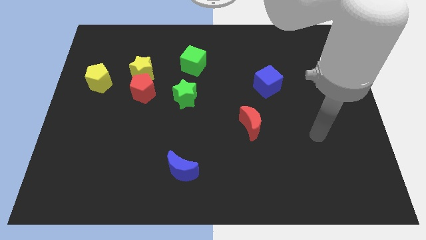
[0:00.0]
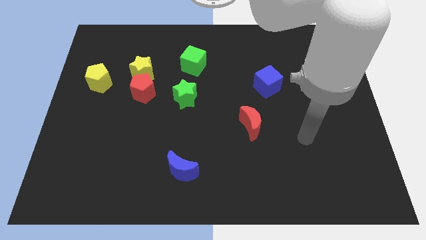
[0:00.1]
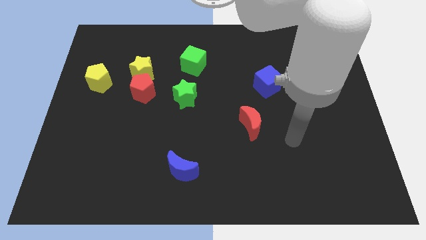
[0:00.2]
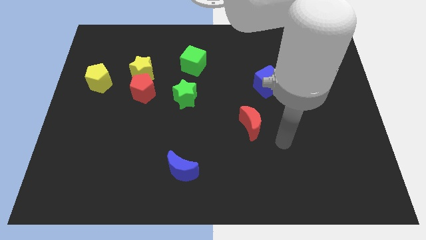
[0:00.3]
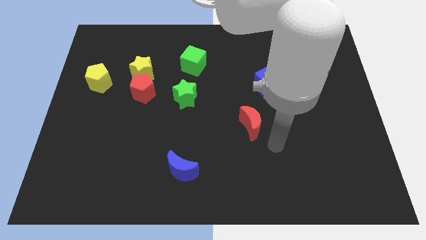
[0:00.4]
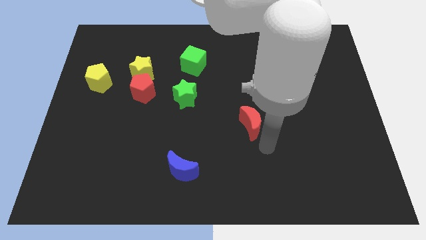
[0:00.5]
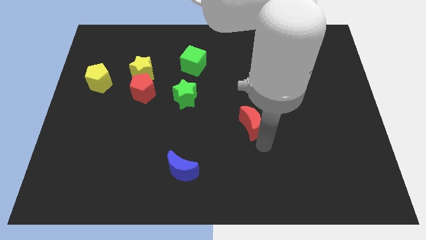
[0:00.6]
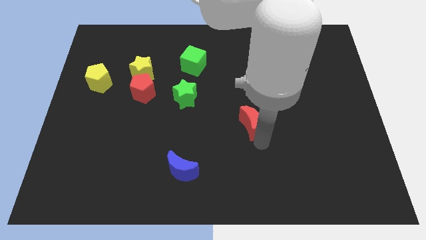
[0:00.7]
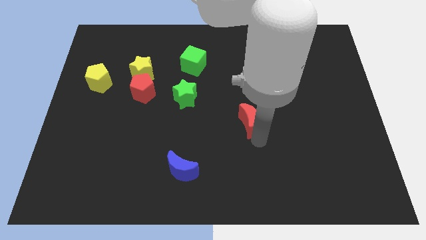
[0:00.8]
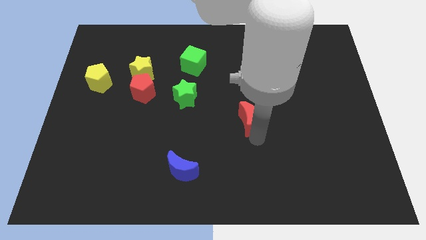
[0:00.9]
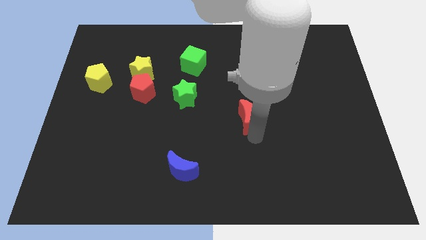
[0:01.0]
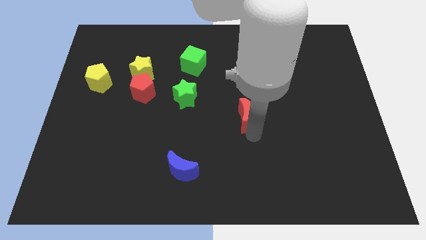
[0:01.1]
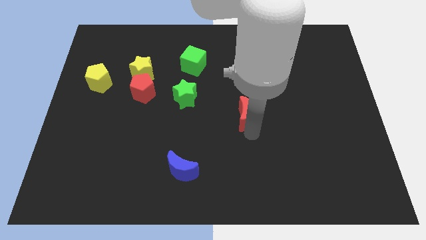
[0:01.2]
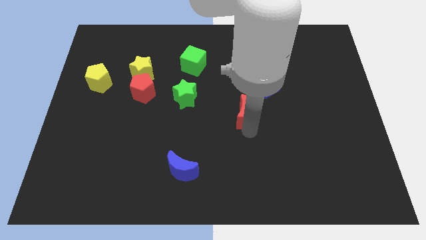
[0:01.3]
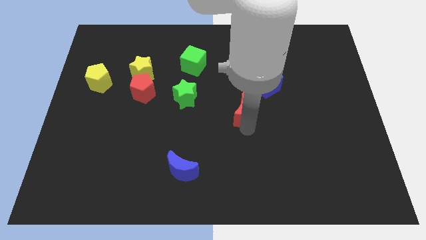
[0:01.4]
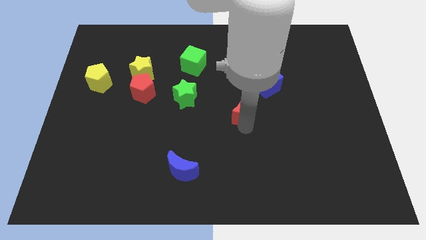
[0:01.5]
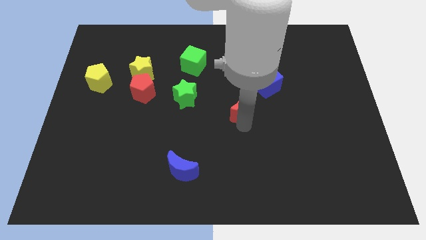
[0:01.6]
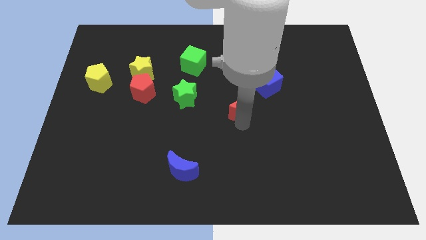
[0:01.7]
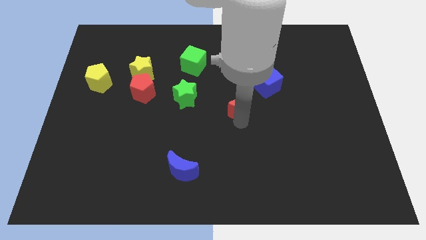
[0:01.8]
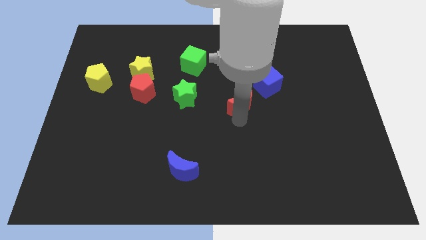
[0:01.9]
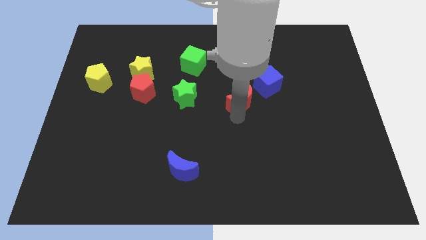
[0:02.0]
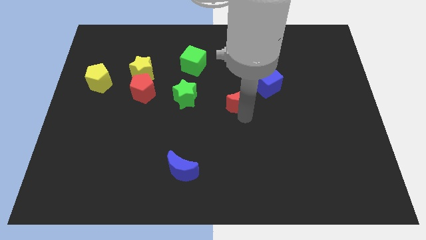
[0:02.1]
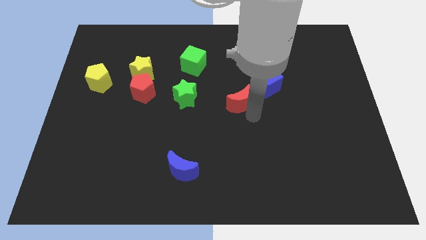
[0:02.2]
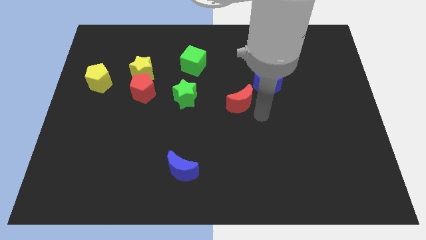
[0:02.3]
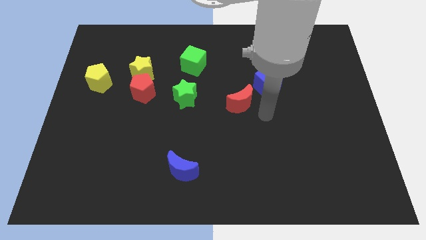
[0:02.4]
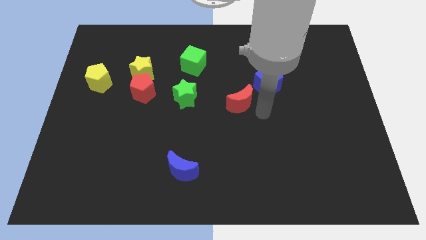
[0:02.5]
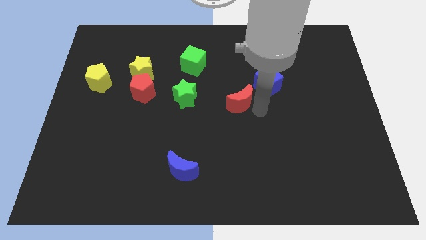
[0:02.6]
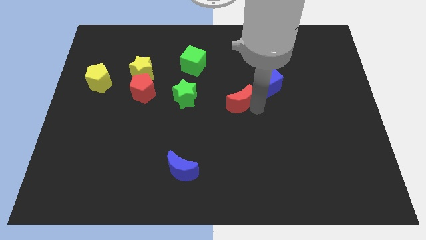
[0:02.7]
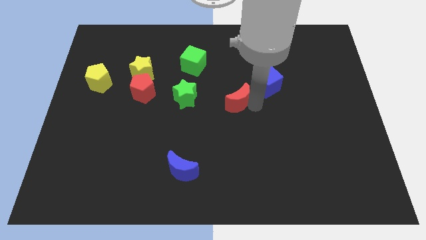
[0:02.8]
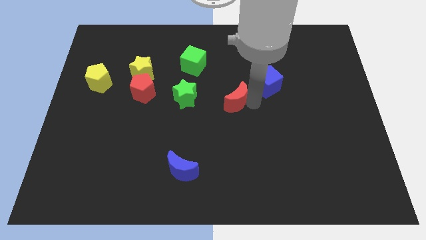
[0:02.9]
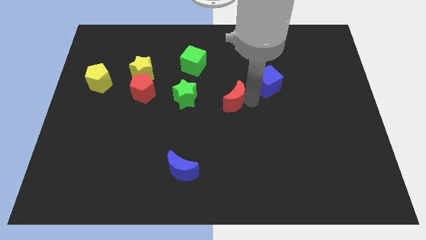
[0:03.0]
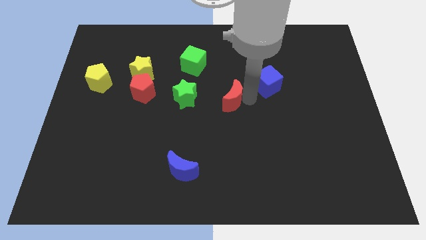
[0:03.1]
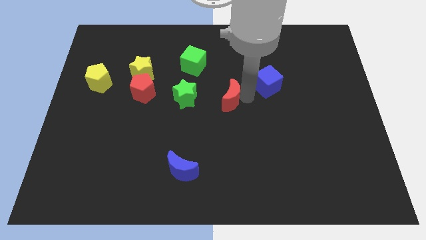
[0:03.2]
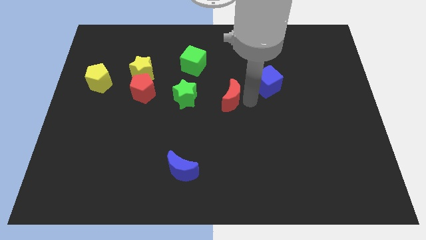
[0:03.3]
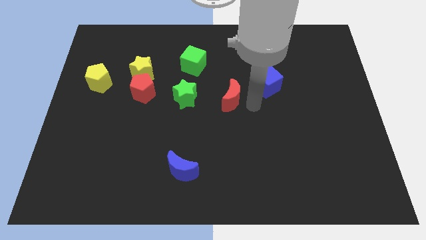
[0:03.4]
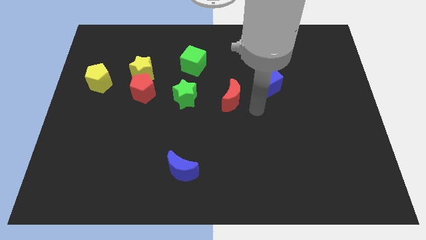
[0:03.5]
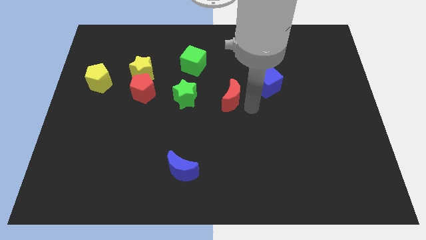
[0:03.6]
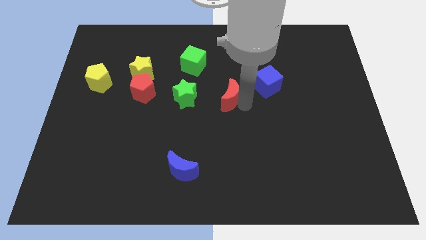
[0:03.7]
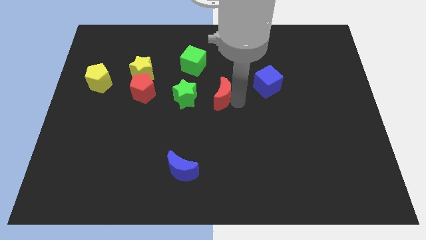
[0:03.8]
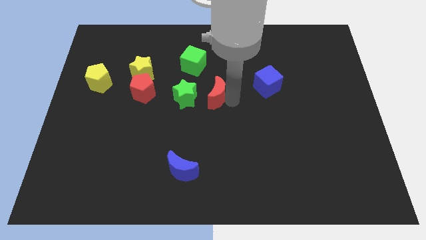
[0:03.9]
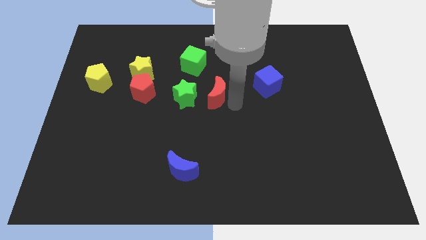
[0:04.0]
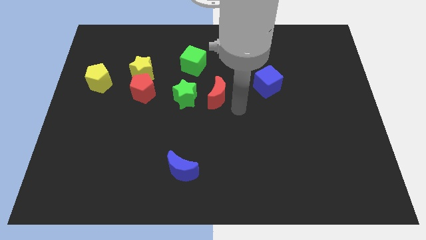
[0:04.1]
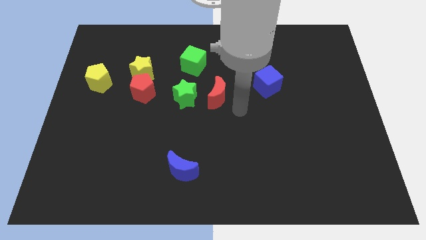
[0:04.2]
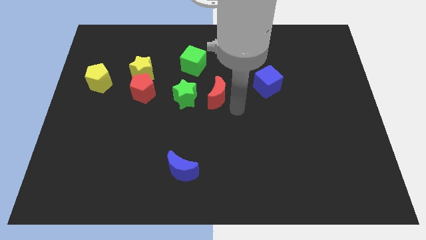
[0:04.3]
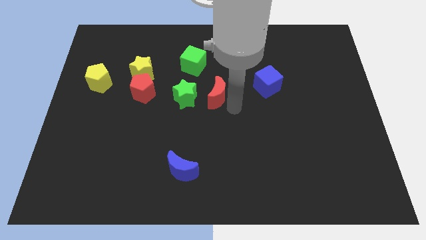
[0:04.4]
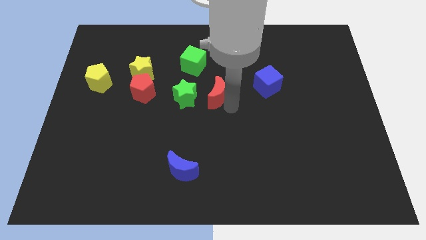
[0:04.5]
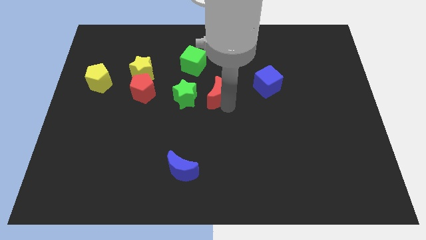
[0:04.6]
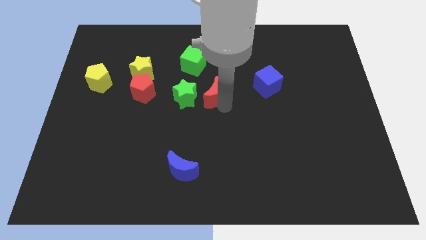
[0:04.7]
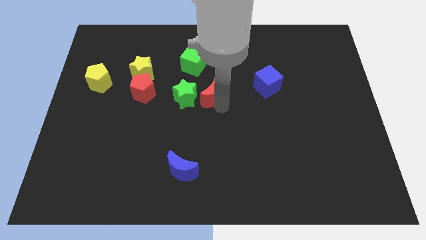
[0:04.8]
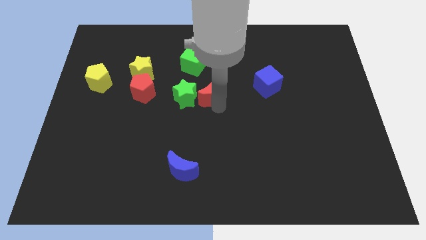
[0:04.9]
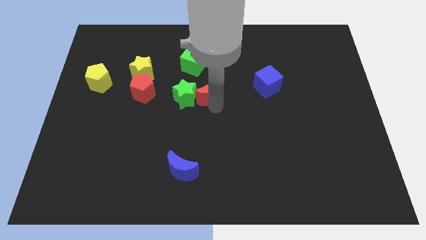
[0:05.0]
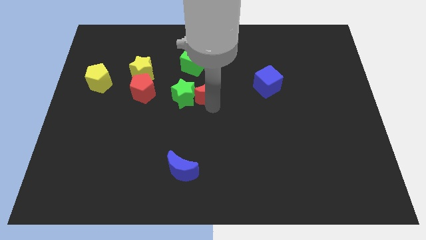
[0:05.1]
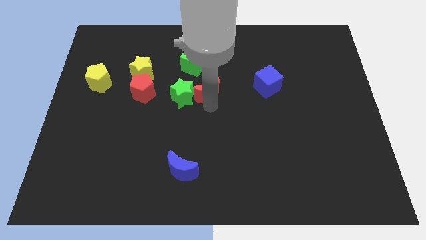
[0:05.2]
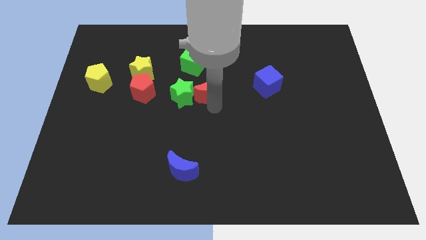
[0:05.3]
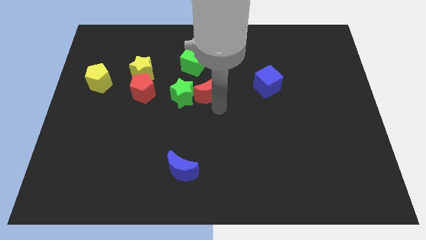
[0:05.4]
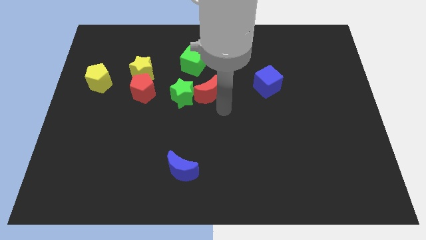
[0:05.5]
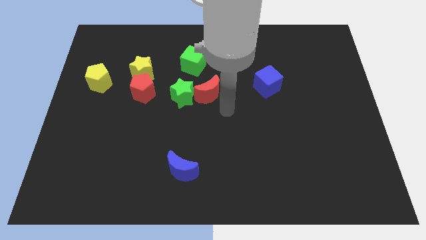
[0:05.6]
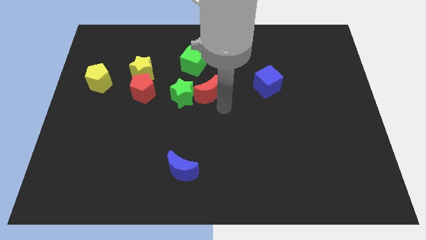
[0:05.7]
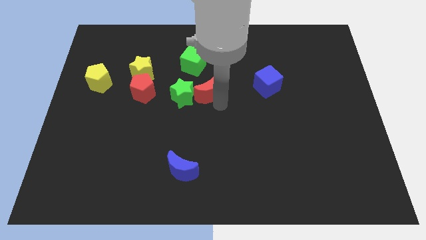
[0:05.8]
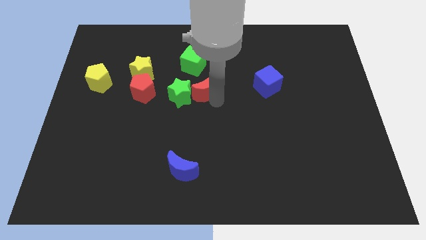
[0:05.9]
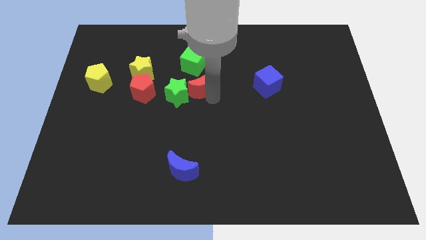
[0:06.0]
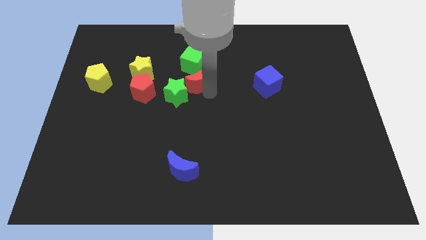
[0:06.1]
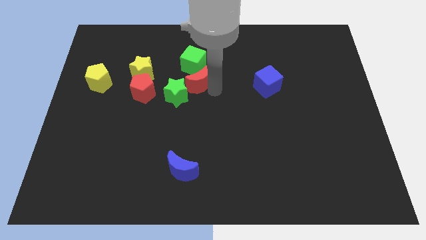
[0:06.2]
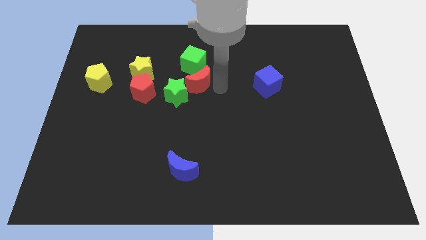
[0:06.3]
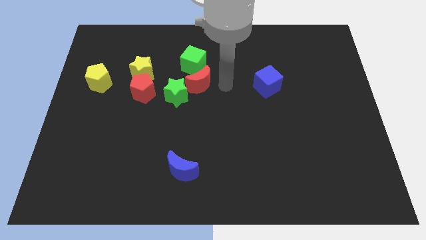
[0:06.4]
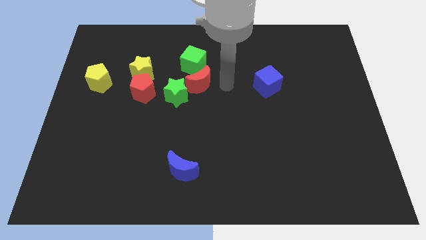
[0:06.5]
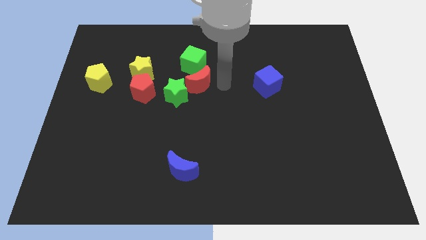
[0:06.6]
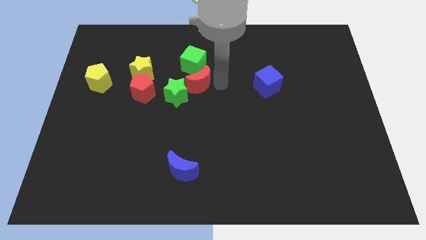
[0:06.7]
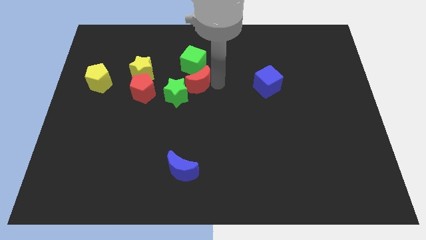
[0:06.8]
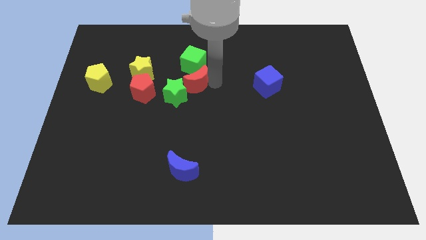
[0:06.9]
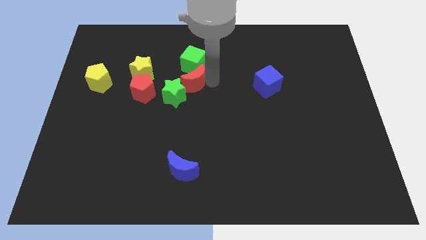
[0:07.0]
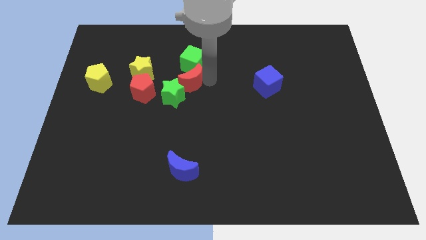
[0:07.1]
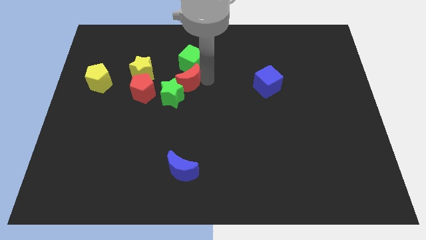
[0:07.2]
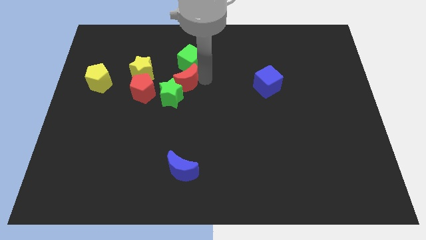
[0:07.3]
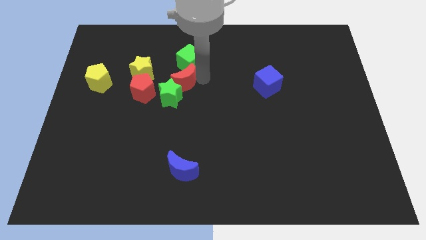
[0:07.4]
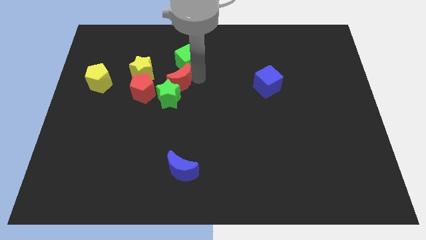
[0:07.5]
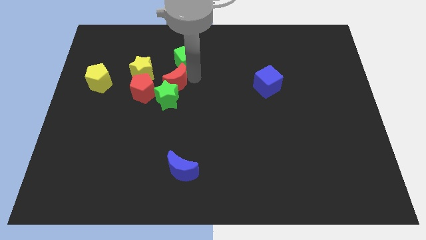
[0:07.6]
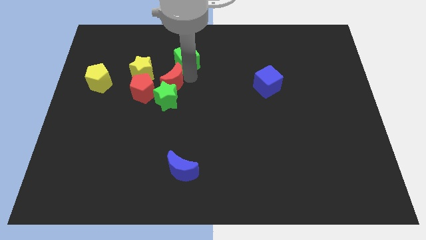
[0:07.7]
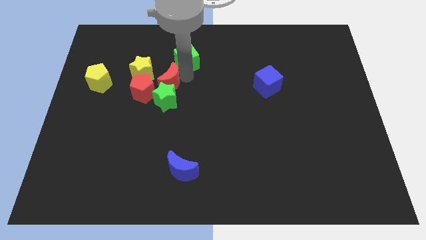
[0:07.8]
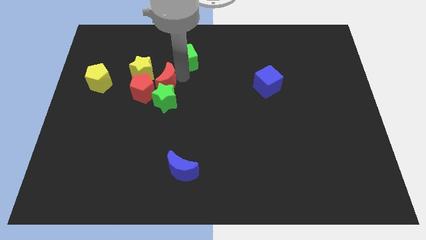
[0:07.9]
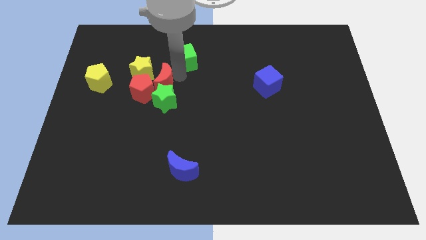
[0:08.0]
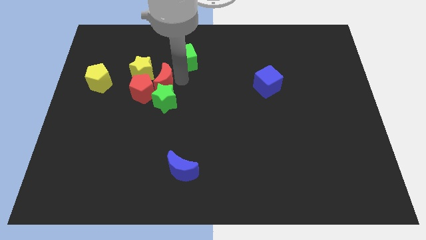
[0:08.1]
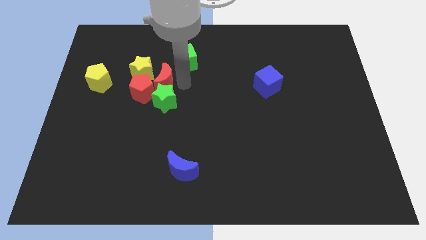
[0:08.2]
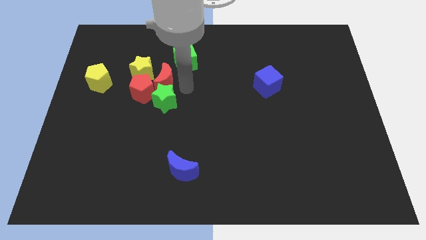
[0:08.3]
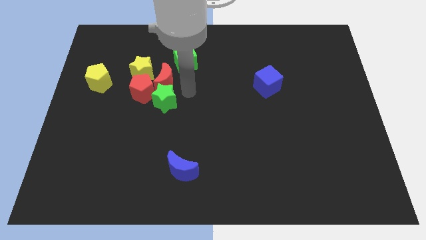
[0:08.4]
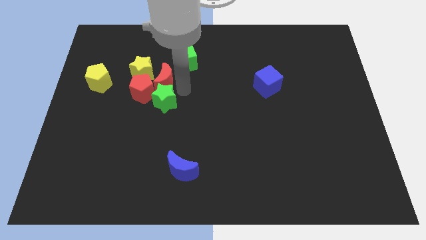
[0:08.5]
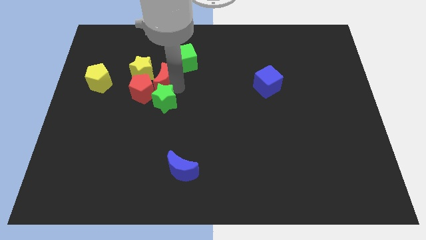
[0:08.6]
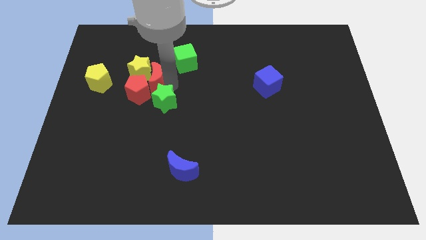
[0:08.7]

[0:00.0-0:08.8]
slide the red moon next to the yellow star
